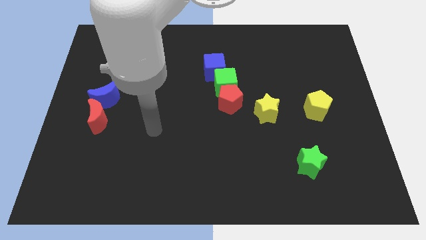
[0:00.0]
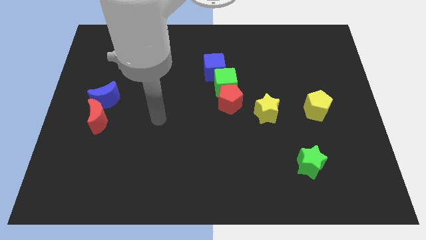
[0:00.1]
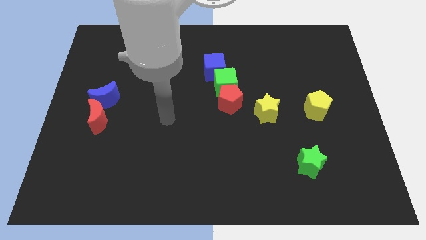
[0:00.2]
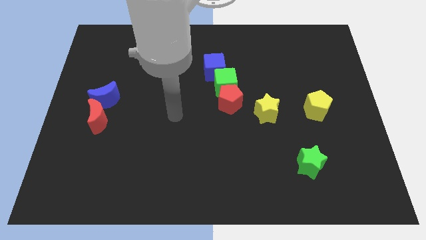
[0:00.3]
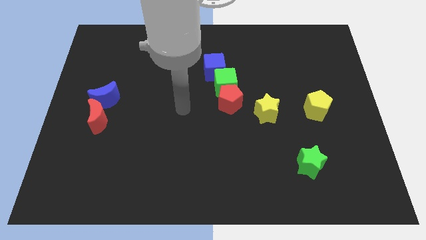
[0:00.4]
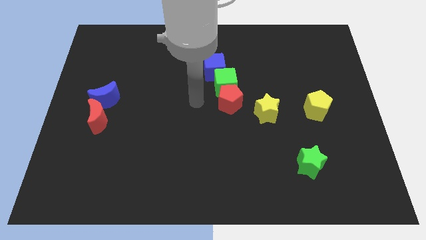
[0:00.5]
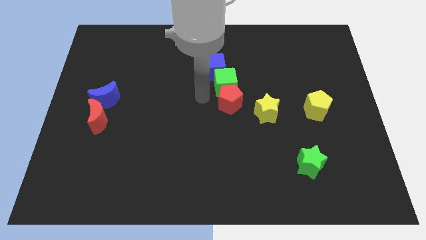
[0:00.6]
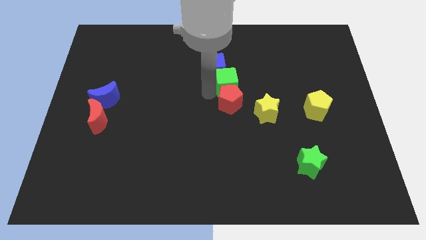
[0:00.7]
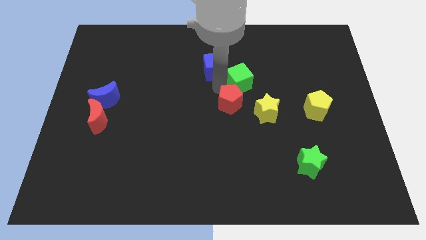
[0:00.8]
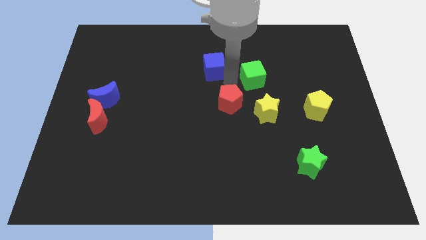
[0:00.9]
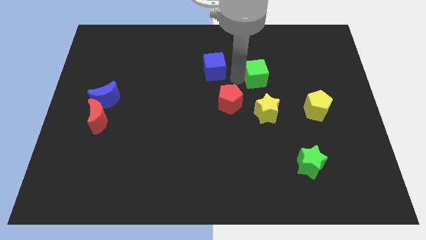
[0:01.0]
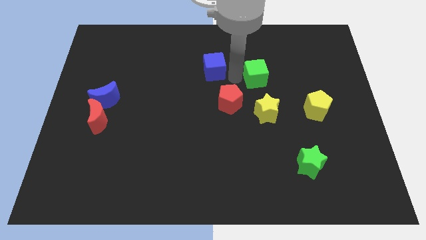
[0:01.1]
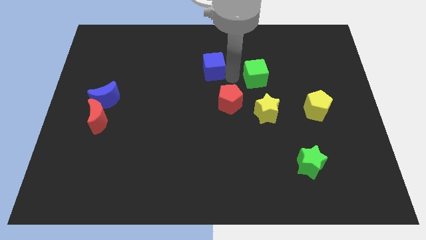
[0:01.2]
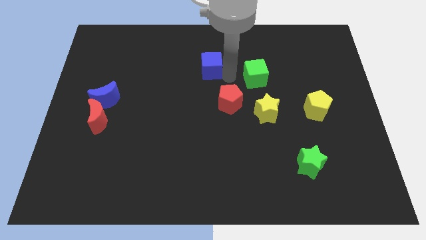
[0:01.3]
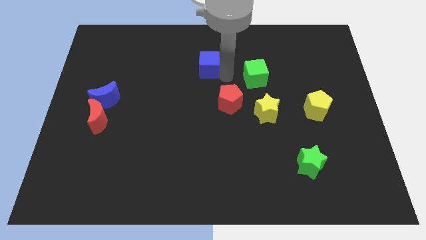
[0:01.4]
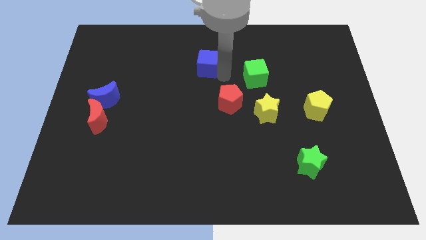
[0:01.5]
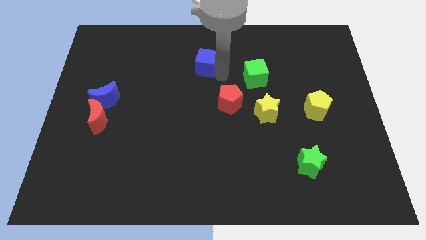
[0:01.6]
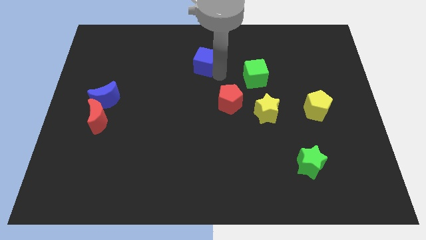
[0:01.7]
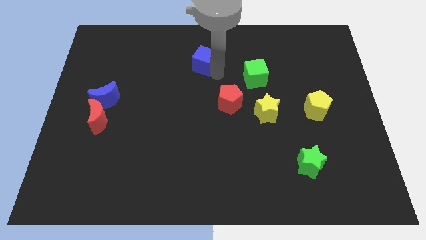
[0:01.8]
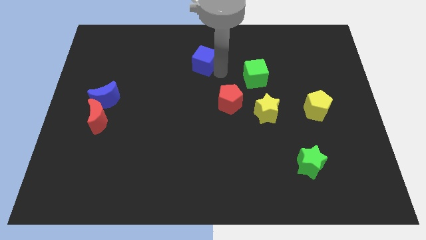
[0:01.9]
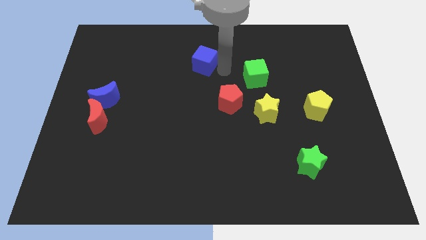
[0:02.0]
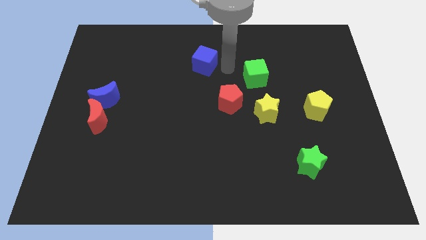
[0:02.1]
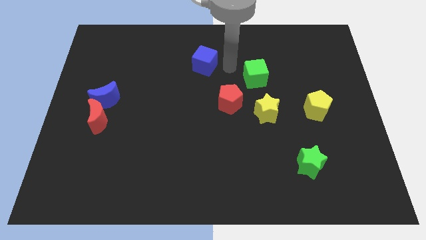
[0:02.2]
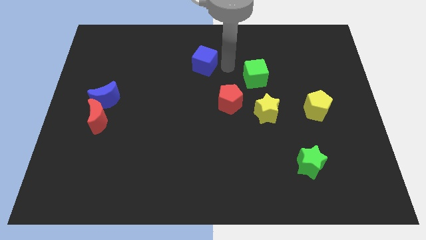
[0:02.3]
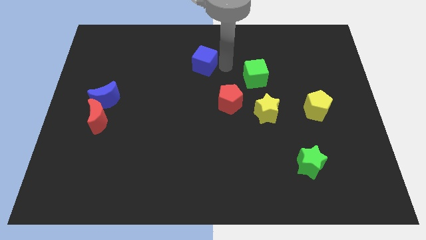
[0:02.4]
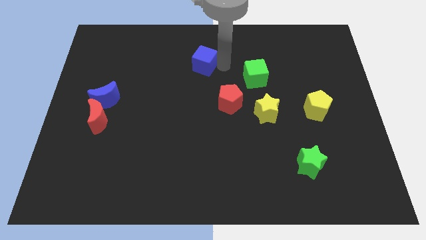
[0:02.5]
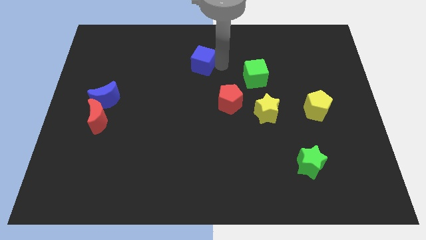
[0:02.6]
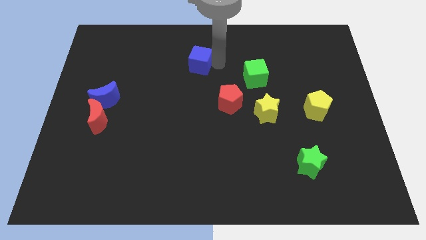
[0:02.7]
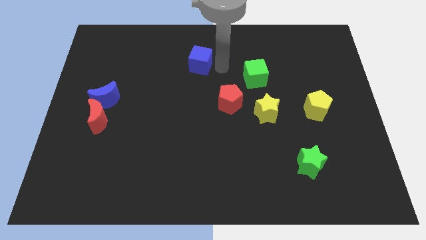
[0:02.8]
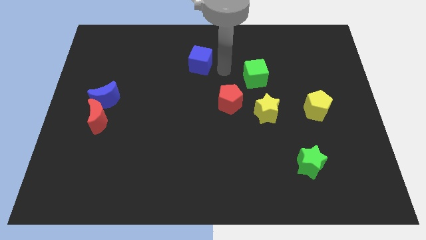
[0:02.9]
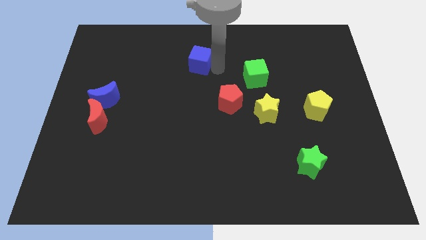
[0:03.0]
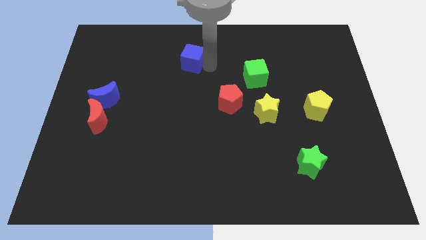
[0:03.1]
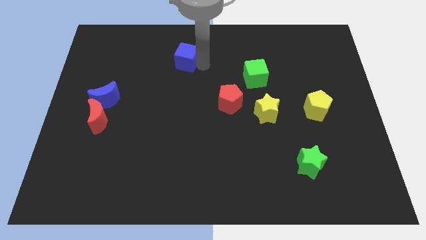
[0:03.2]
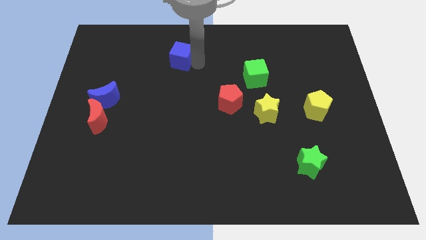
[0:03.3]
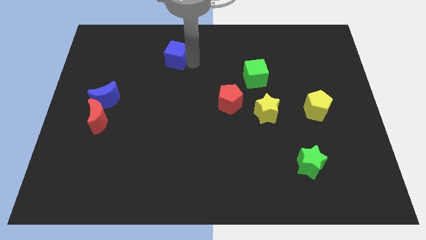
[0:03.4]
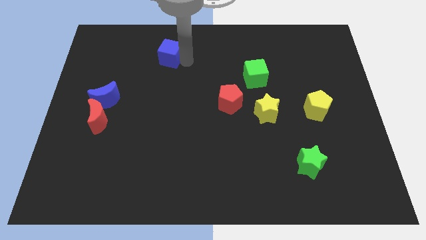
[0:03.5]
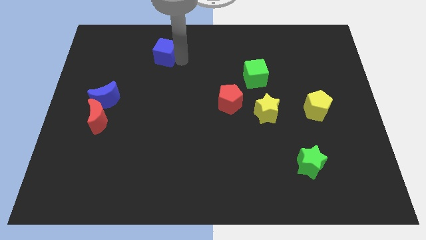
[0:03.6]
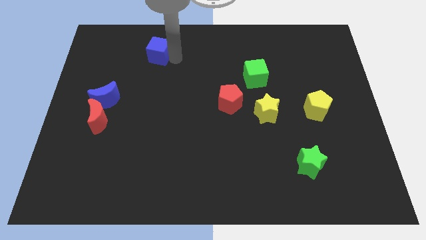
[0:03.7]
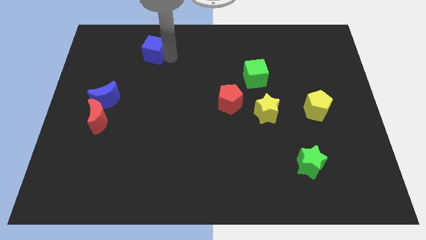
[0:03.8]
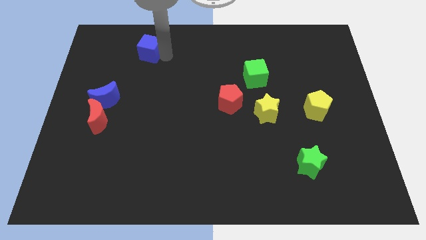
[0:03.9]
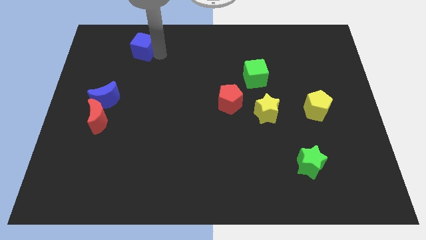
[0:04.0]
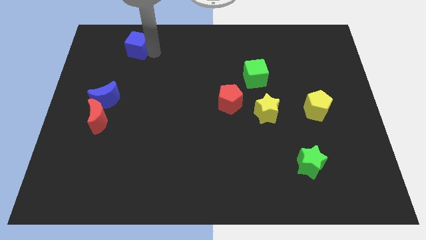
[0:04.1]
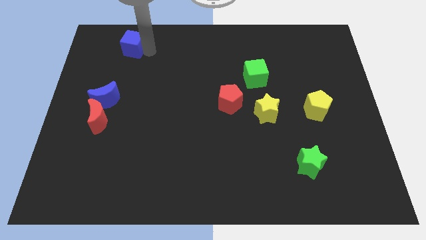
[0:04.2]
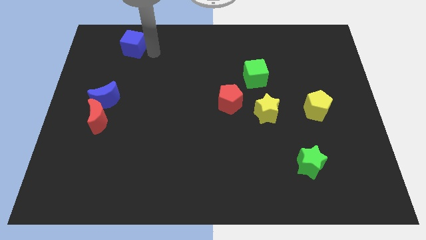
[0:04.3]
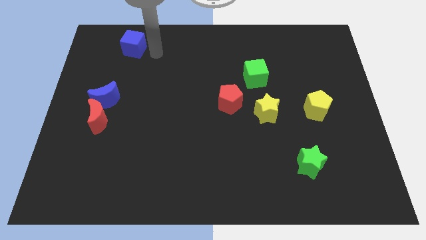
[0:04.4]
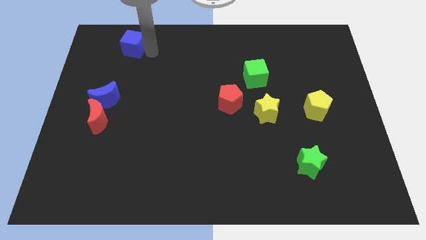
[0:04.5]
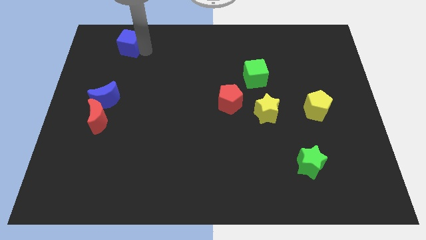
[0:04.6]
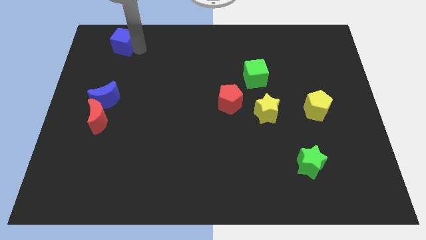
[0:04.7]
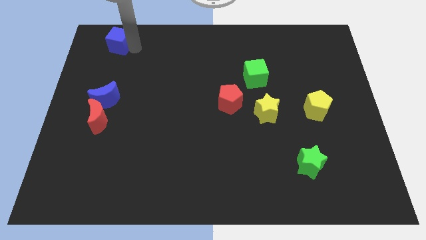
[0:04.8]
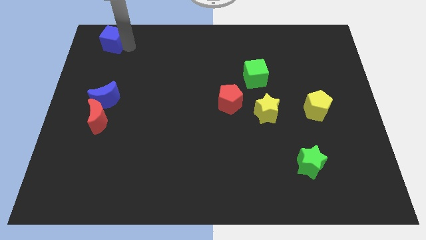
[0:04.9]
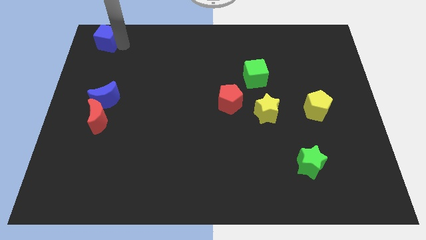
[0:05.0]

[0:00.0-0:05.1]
move the blue cube to the top left corner

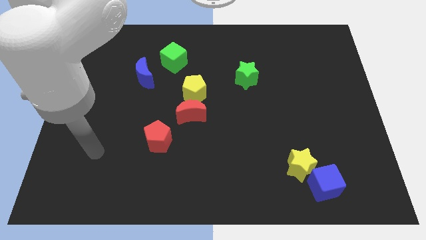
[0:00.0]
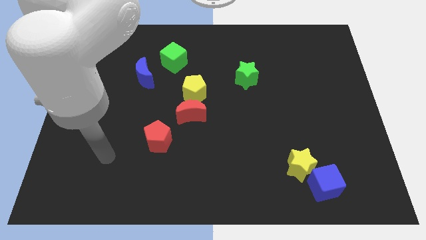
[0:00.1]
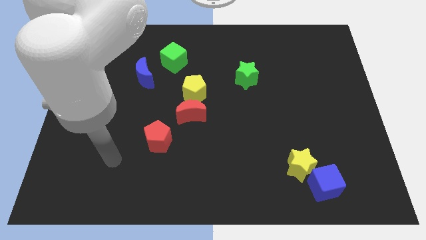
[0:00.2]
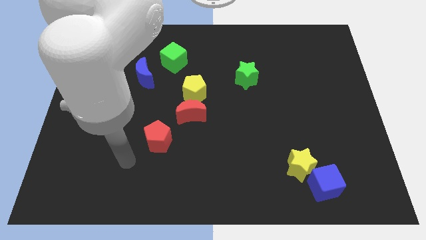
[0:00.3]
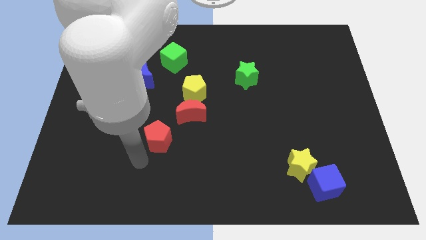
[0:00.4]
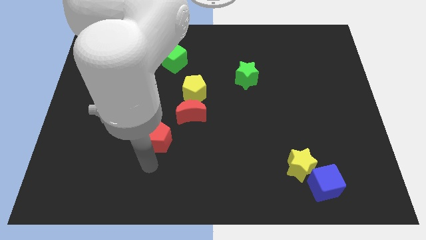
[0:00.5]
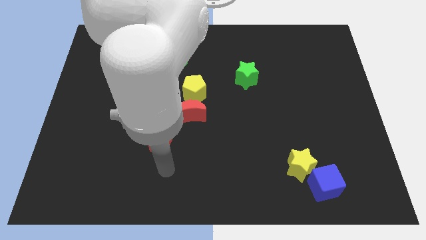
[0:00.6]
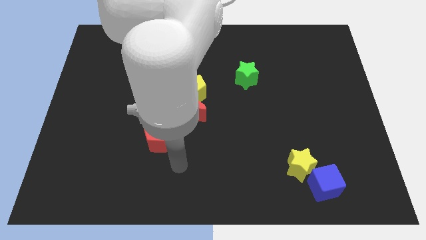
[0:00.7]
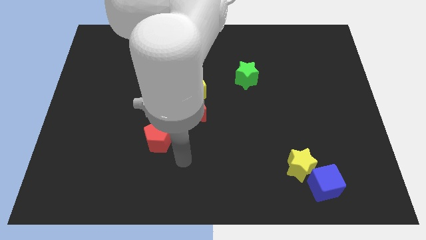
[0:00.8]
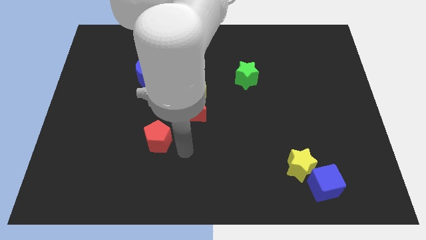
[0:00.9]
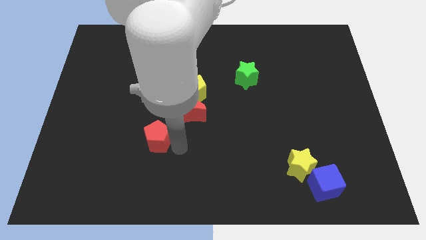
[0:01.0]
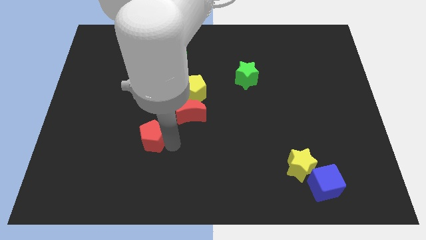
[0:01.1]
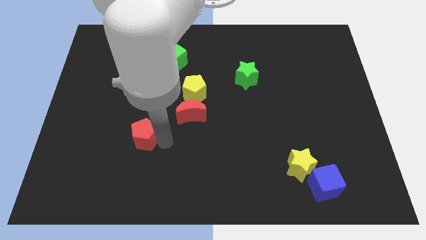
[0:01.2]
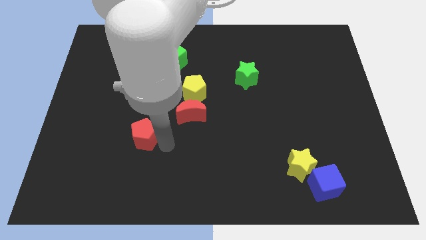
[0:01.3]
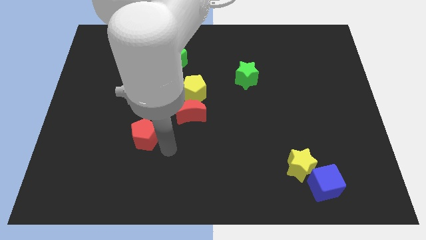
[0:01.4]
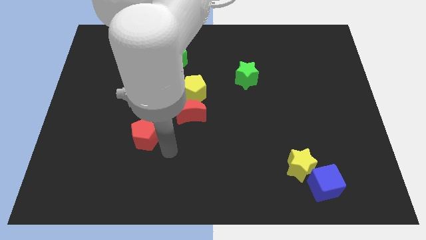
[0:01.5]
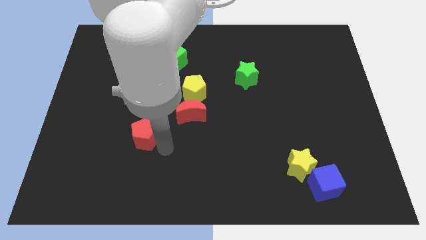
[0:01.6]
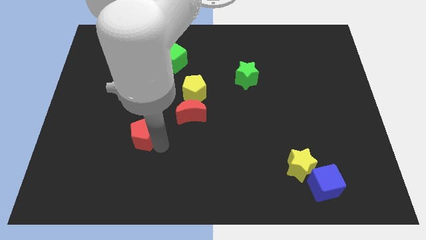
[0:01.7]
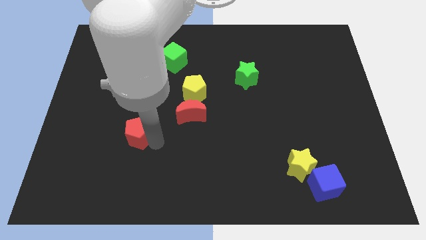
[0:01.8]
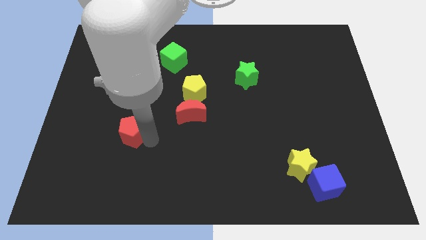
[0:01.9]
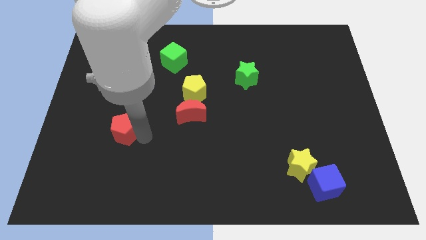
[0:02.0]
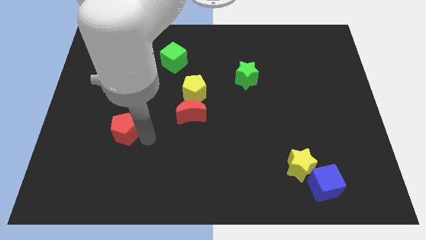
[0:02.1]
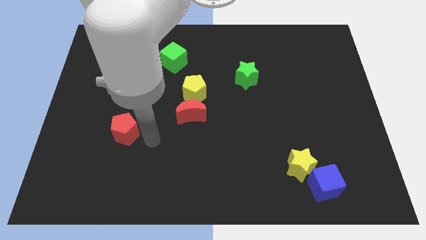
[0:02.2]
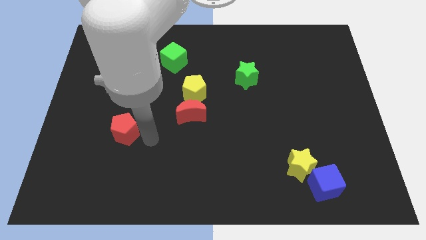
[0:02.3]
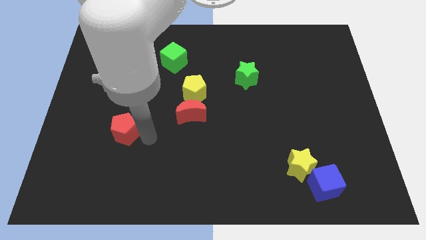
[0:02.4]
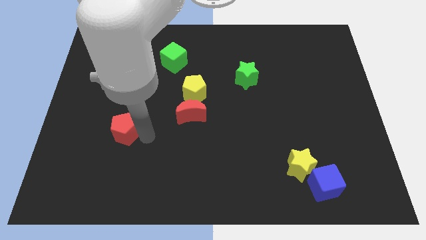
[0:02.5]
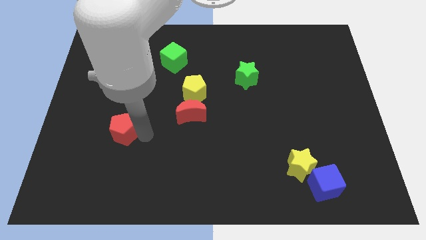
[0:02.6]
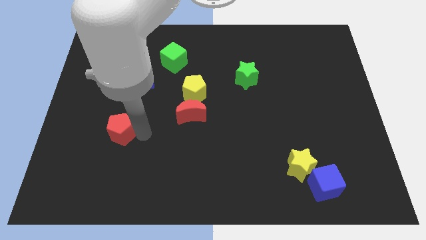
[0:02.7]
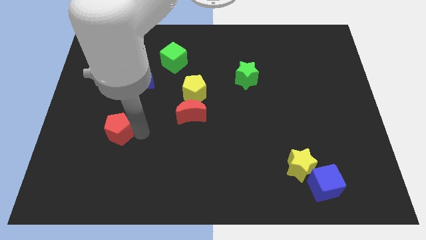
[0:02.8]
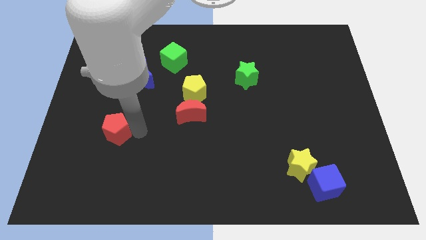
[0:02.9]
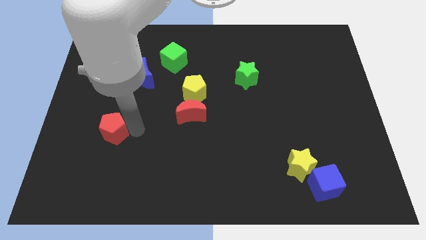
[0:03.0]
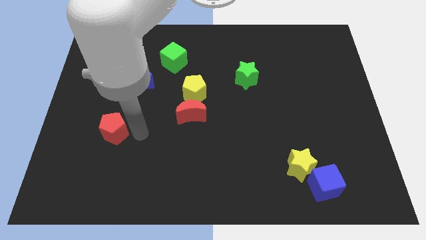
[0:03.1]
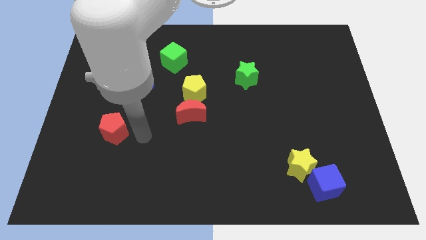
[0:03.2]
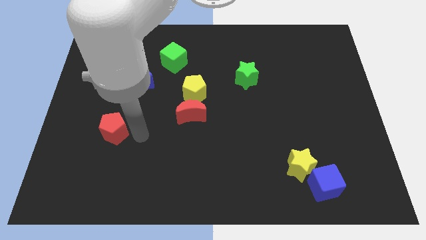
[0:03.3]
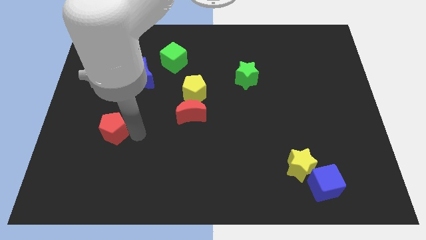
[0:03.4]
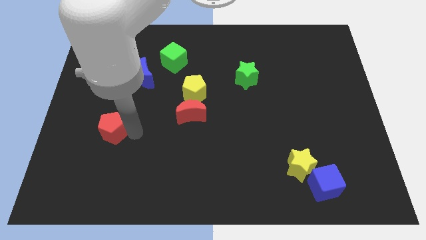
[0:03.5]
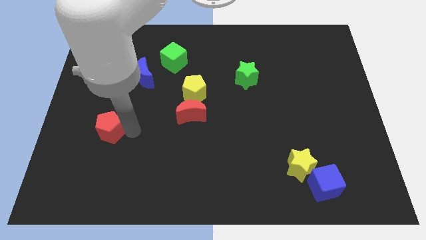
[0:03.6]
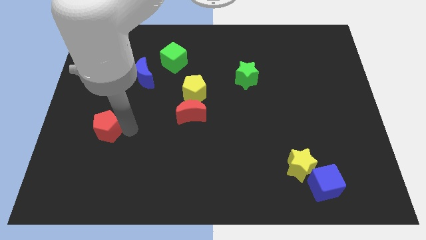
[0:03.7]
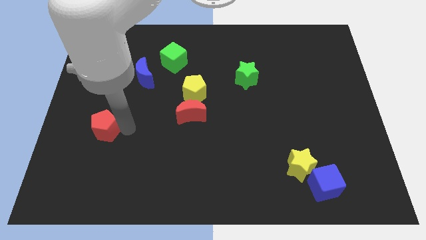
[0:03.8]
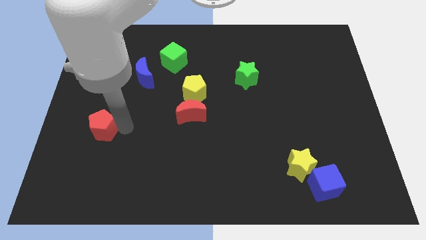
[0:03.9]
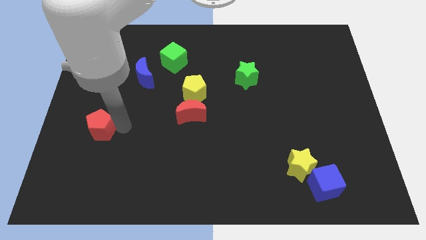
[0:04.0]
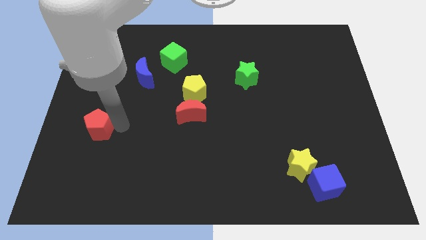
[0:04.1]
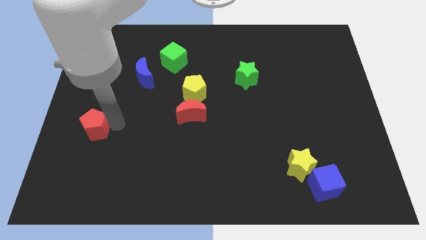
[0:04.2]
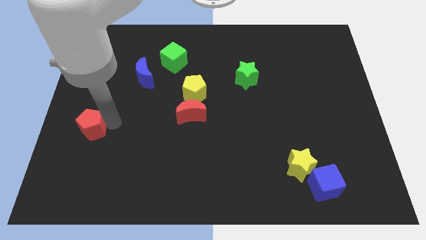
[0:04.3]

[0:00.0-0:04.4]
slide the red pentagon to the left side
